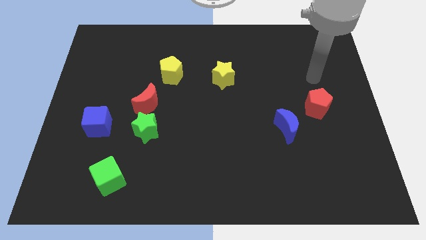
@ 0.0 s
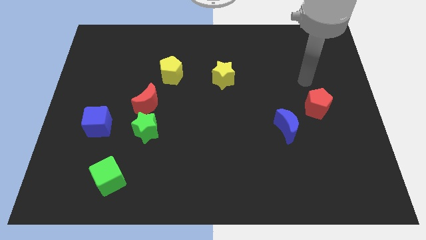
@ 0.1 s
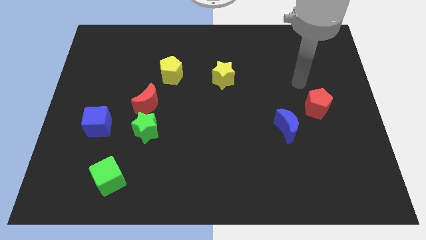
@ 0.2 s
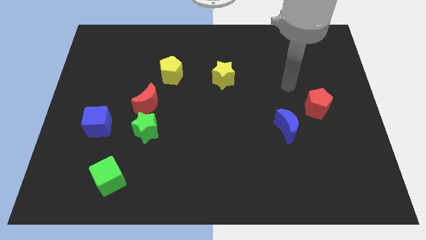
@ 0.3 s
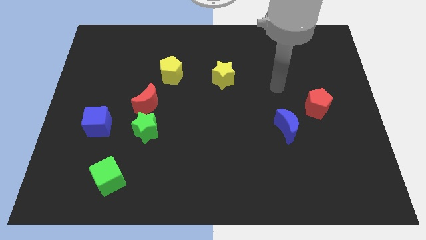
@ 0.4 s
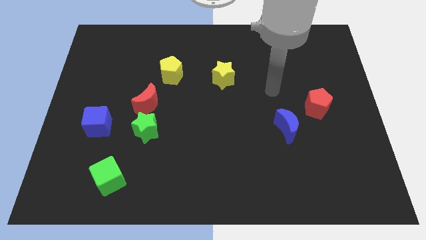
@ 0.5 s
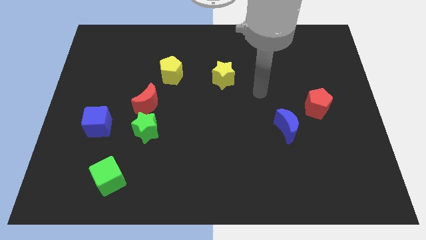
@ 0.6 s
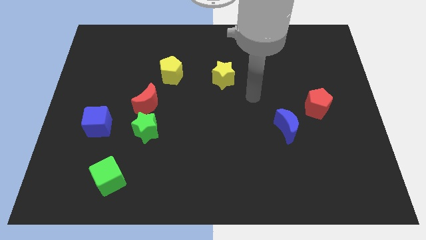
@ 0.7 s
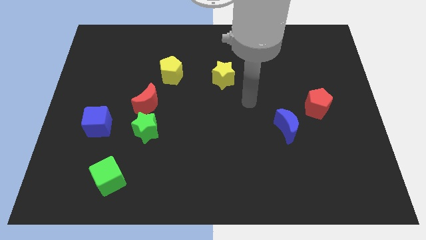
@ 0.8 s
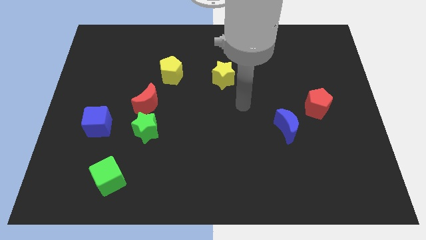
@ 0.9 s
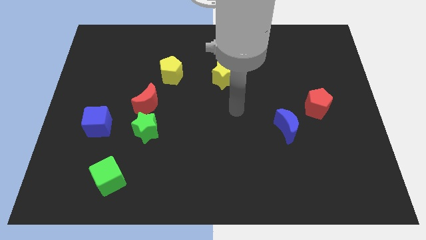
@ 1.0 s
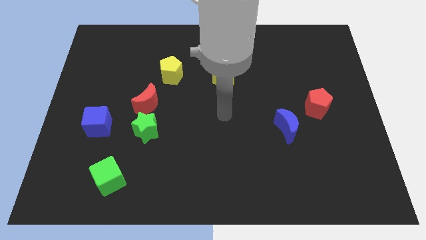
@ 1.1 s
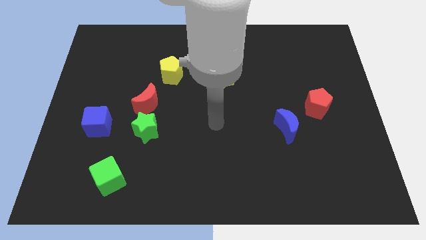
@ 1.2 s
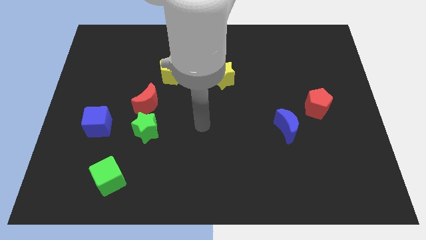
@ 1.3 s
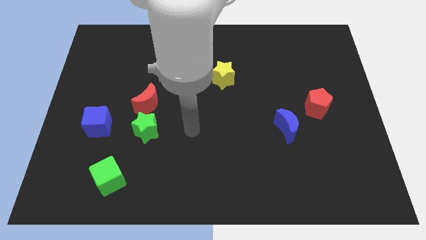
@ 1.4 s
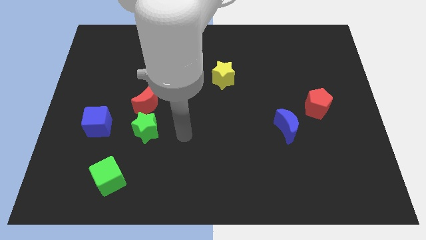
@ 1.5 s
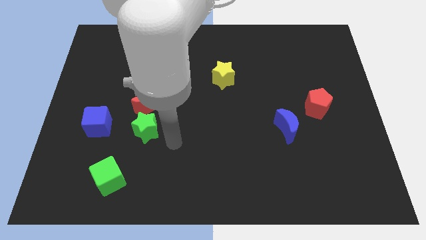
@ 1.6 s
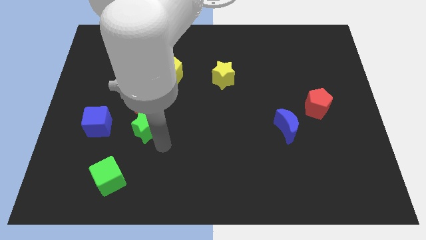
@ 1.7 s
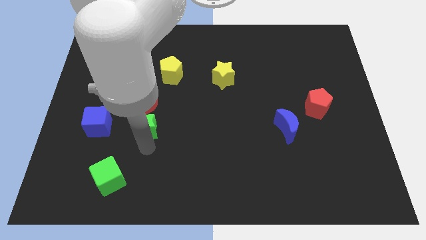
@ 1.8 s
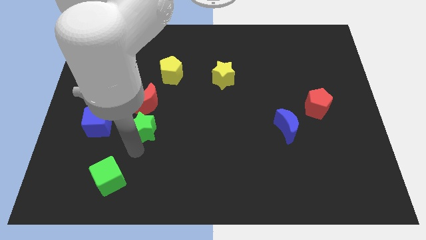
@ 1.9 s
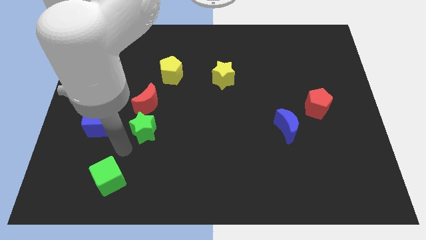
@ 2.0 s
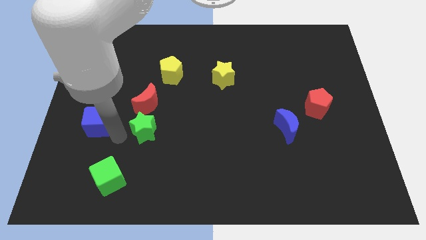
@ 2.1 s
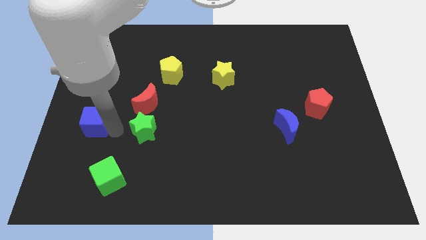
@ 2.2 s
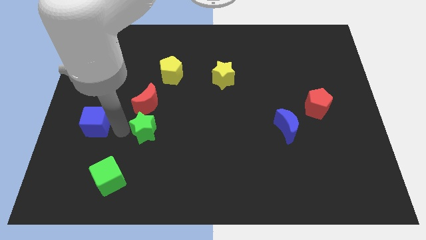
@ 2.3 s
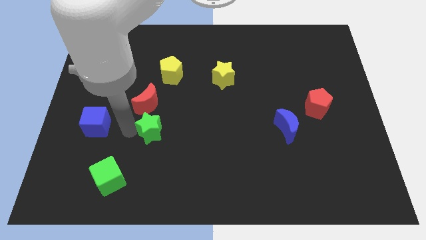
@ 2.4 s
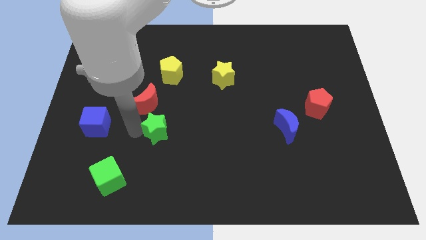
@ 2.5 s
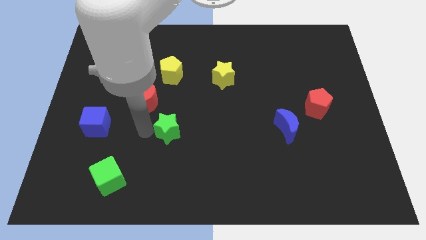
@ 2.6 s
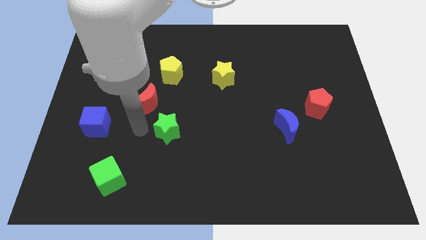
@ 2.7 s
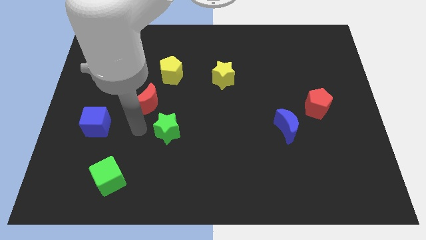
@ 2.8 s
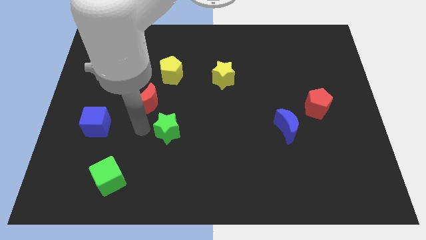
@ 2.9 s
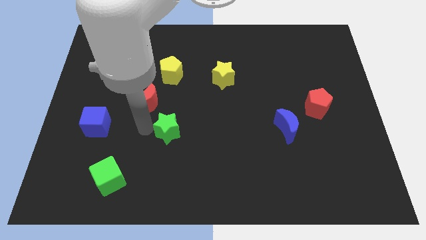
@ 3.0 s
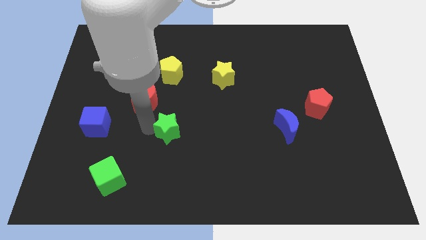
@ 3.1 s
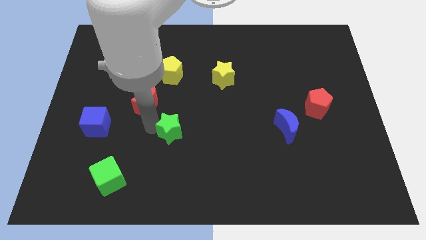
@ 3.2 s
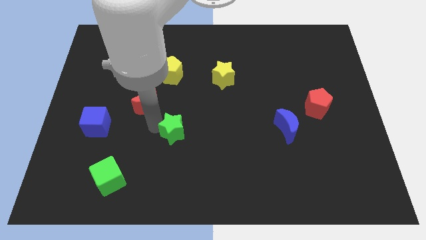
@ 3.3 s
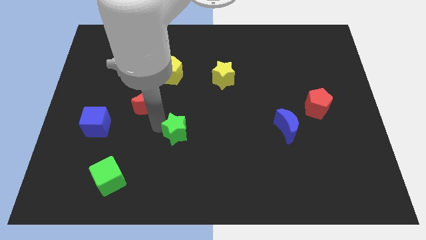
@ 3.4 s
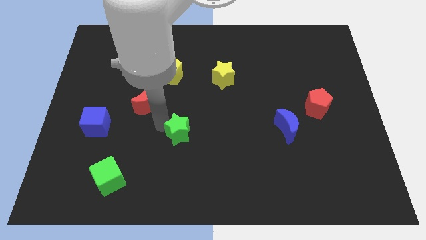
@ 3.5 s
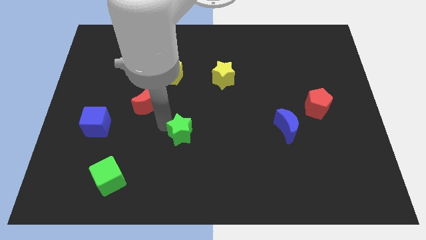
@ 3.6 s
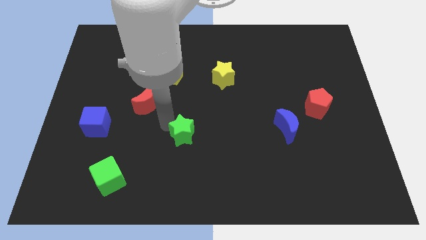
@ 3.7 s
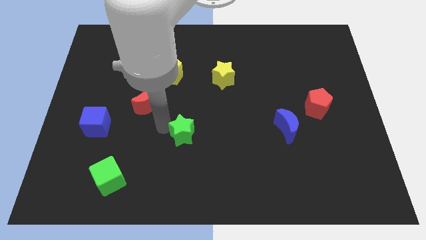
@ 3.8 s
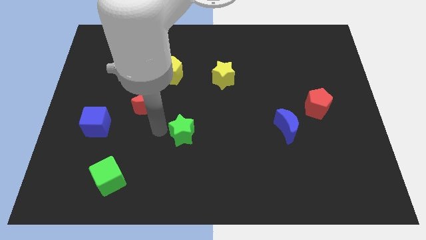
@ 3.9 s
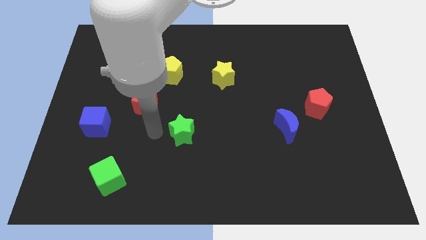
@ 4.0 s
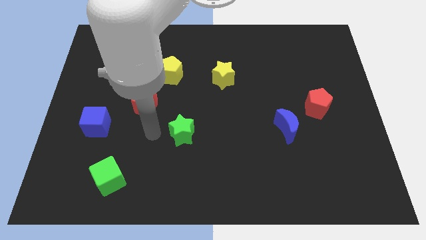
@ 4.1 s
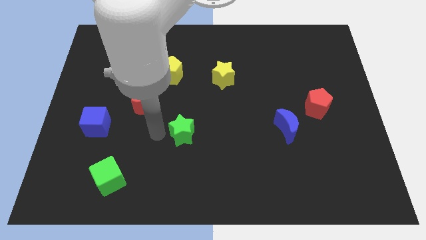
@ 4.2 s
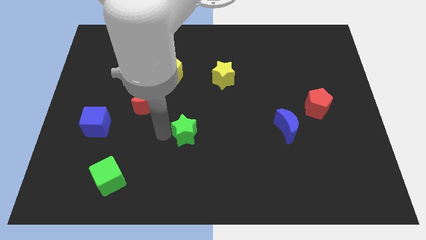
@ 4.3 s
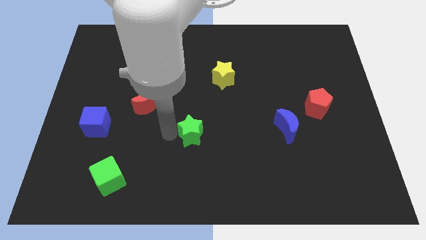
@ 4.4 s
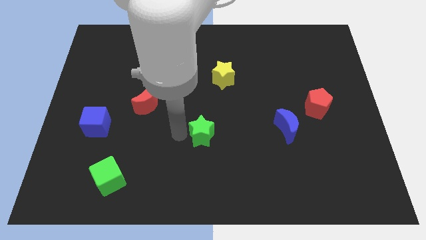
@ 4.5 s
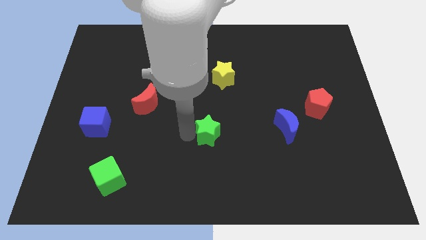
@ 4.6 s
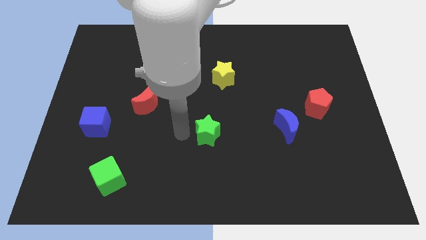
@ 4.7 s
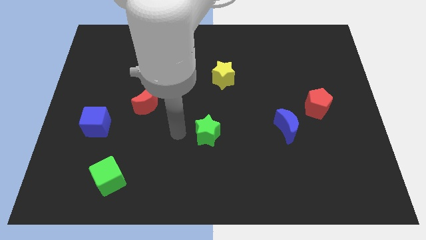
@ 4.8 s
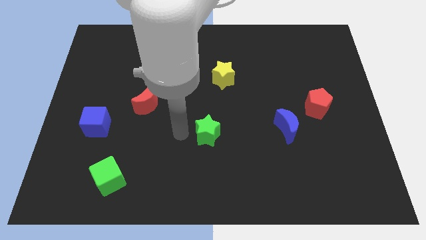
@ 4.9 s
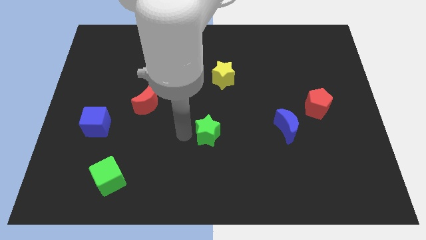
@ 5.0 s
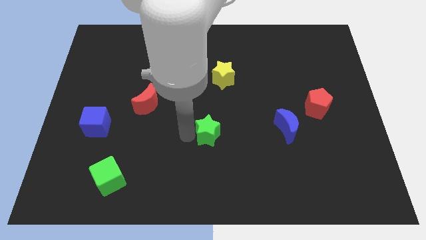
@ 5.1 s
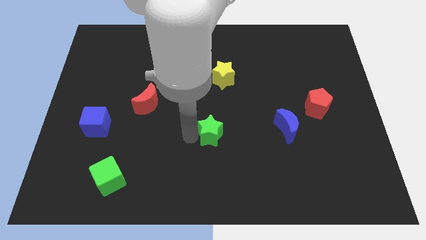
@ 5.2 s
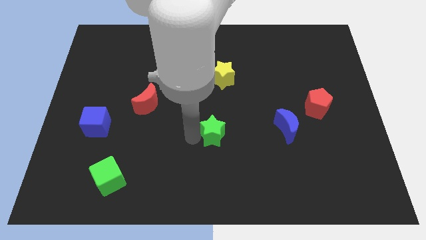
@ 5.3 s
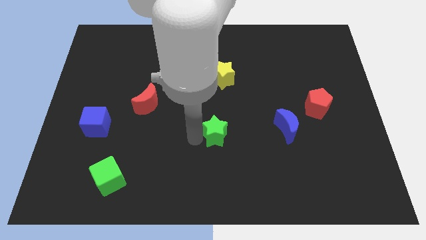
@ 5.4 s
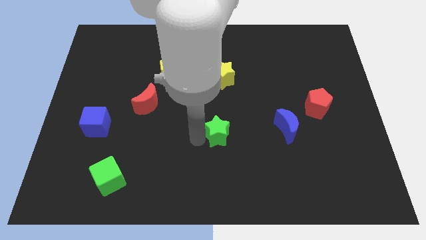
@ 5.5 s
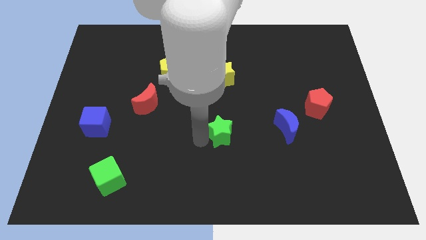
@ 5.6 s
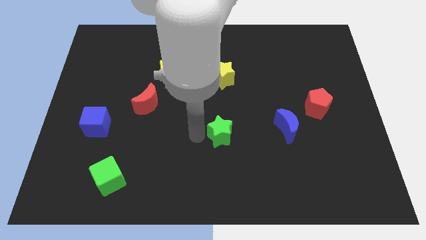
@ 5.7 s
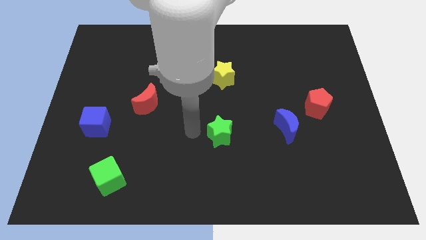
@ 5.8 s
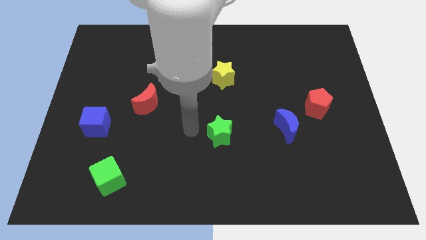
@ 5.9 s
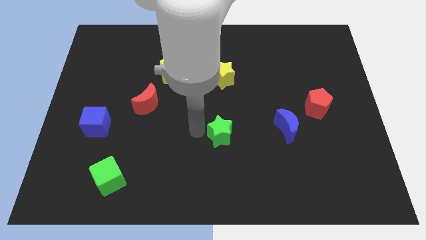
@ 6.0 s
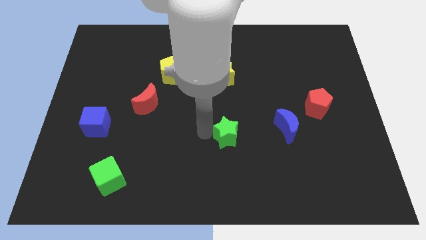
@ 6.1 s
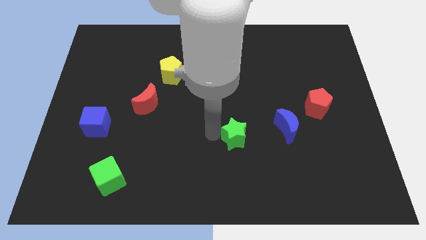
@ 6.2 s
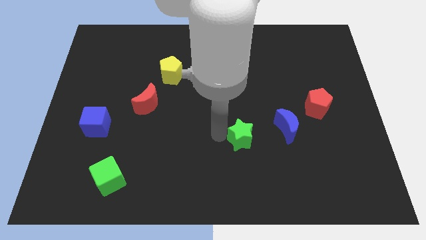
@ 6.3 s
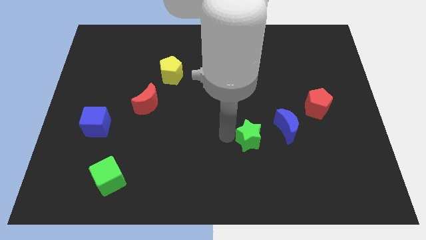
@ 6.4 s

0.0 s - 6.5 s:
push the green star diagonally down and to the left of the blue moon

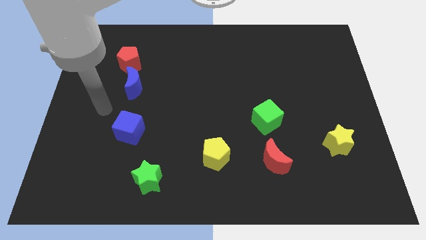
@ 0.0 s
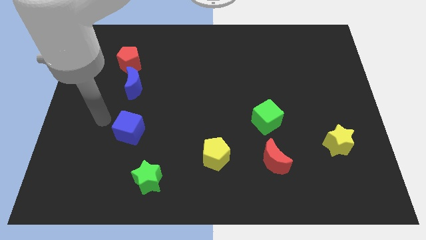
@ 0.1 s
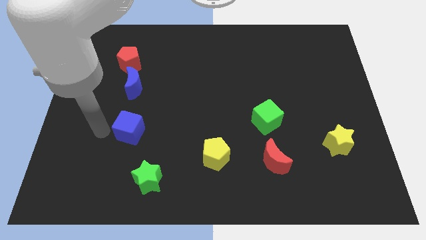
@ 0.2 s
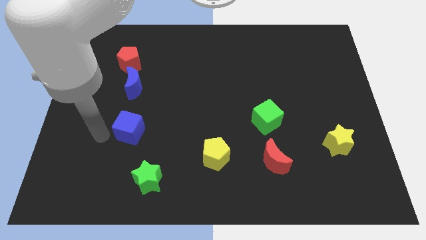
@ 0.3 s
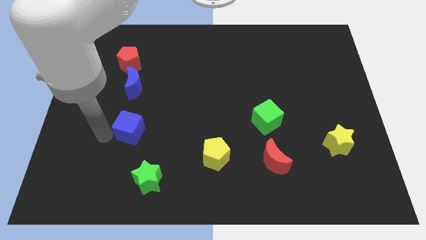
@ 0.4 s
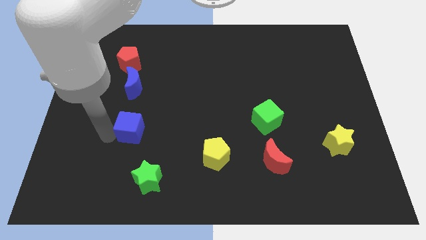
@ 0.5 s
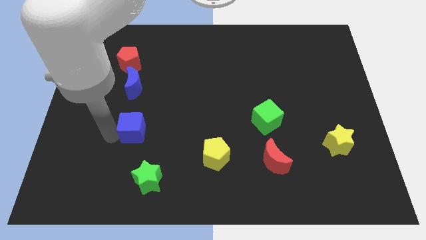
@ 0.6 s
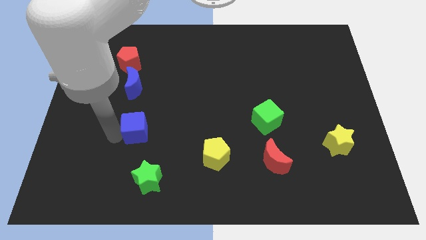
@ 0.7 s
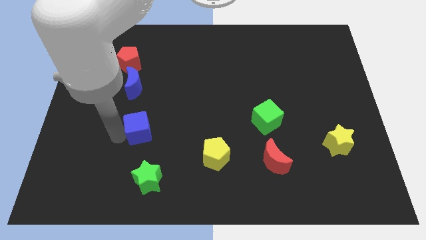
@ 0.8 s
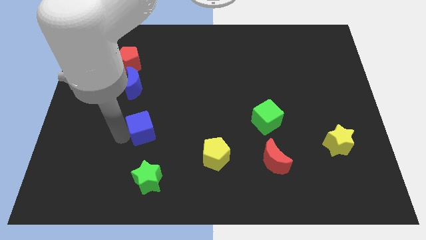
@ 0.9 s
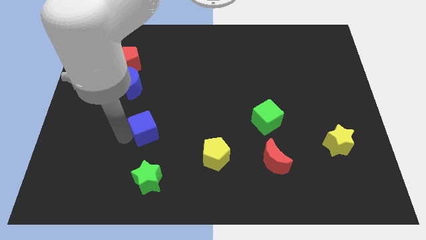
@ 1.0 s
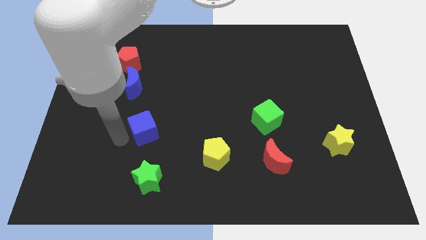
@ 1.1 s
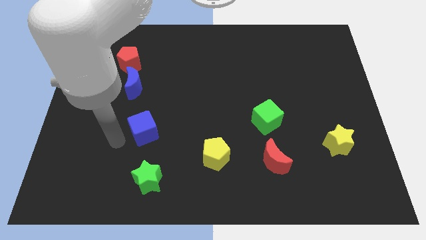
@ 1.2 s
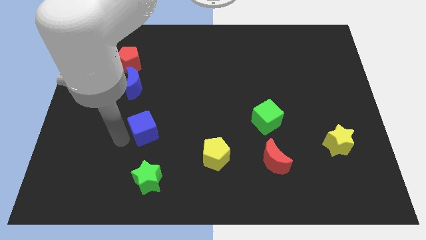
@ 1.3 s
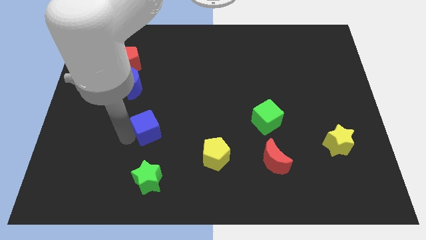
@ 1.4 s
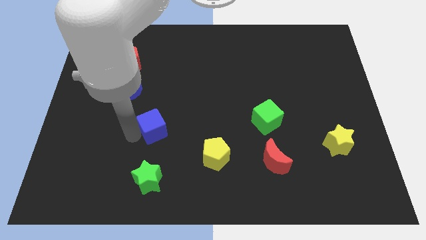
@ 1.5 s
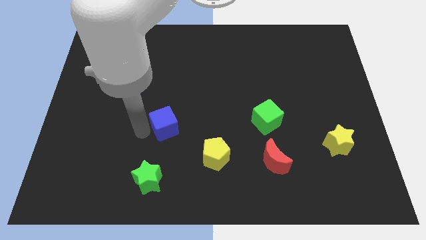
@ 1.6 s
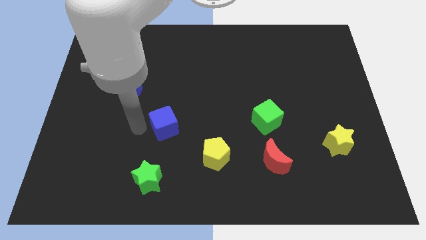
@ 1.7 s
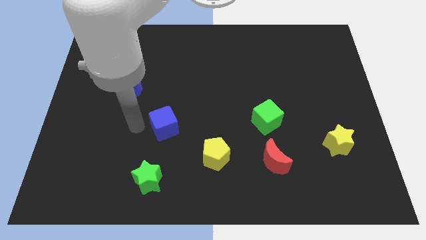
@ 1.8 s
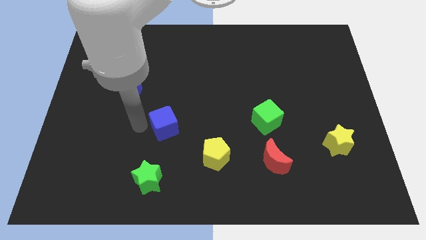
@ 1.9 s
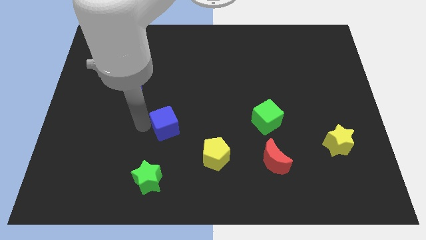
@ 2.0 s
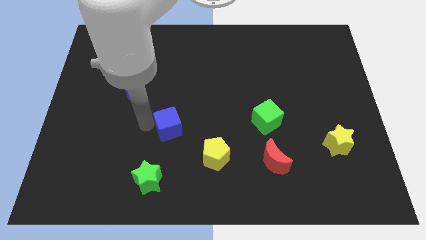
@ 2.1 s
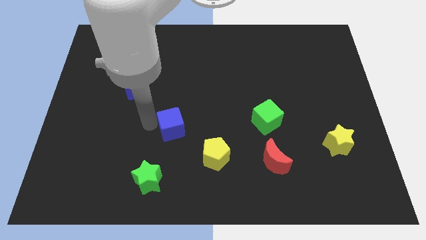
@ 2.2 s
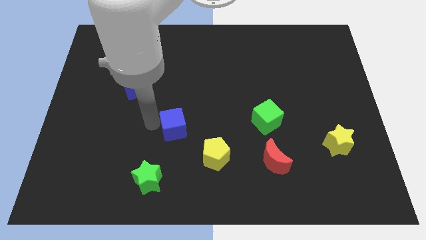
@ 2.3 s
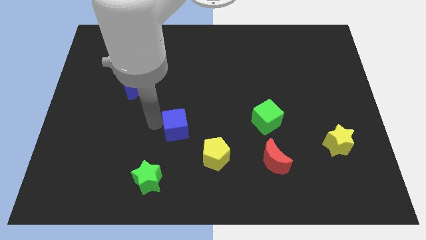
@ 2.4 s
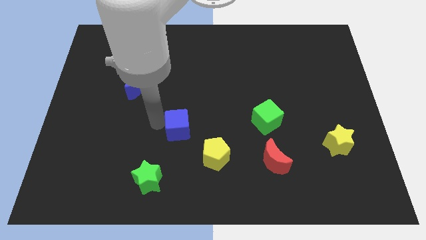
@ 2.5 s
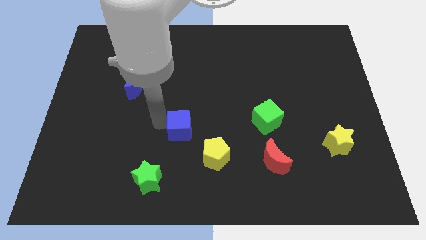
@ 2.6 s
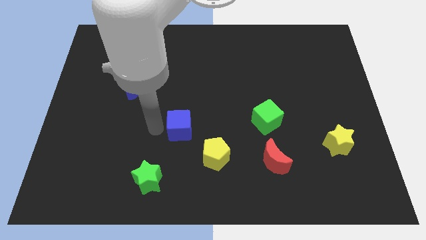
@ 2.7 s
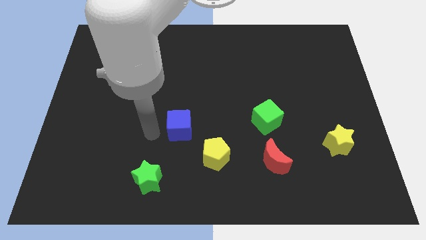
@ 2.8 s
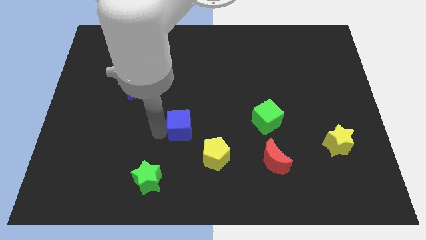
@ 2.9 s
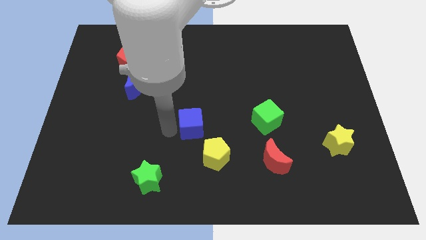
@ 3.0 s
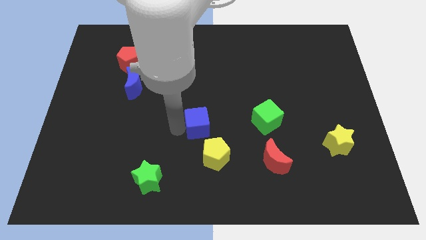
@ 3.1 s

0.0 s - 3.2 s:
slide the blue cube to the left of the green cube
